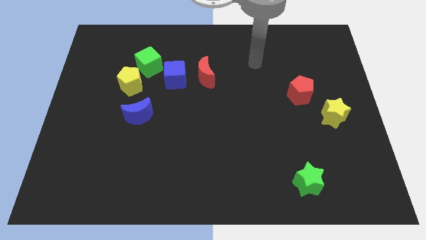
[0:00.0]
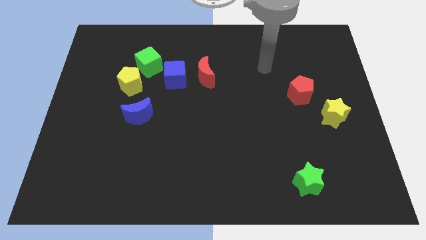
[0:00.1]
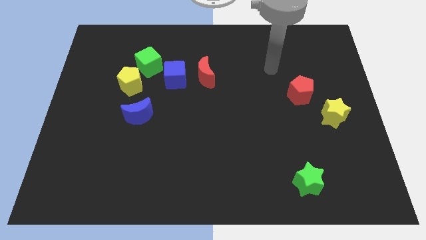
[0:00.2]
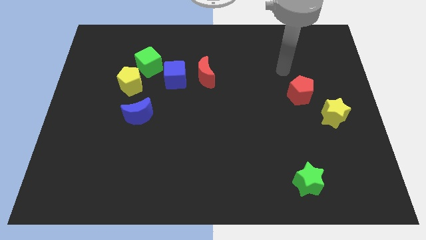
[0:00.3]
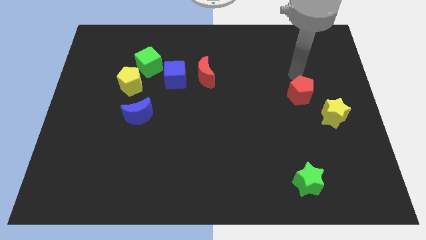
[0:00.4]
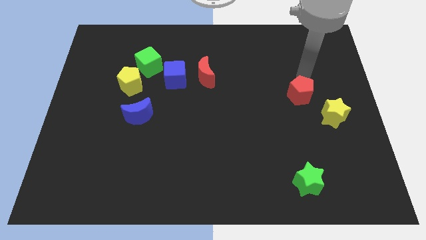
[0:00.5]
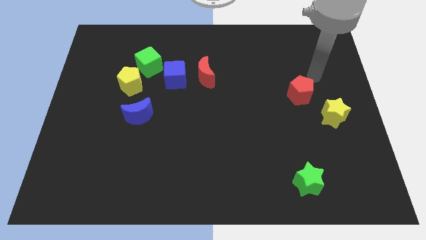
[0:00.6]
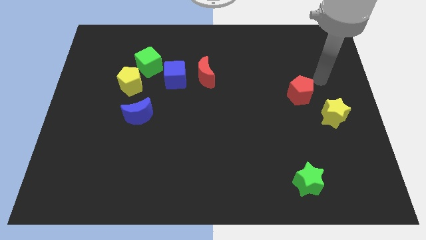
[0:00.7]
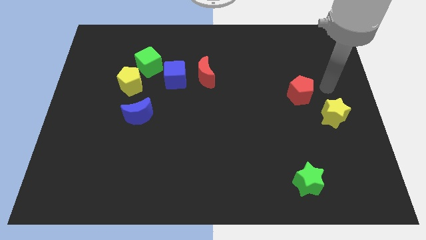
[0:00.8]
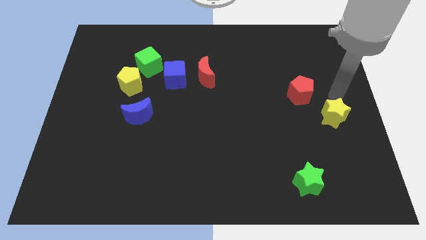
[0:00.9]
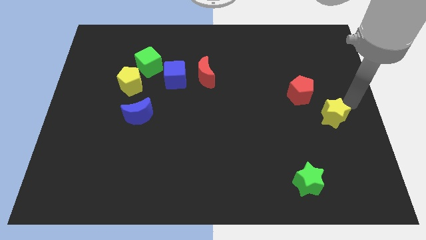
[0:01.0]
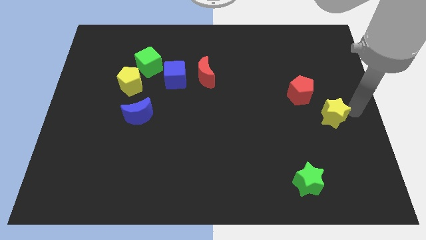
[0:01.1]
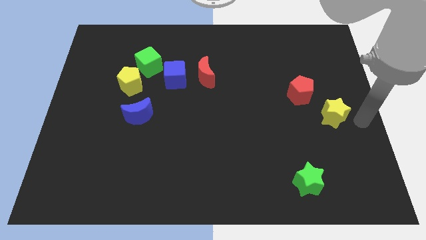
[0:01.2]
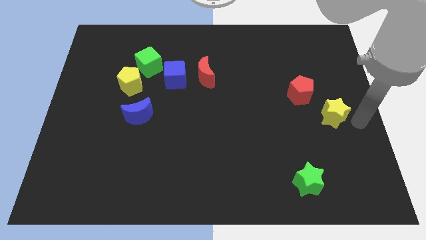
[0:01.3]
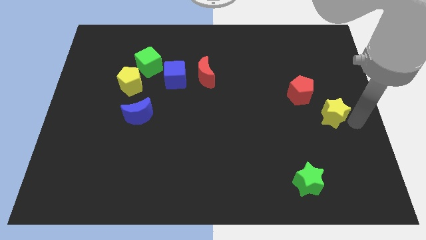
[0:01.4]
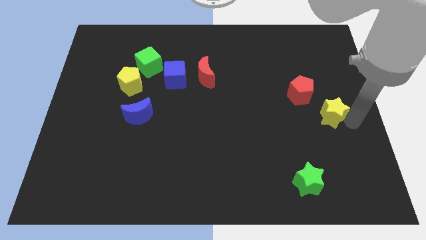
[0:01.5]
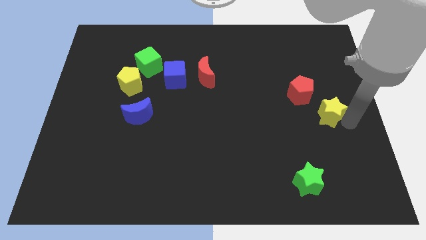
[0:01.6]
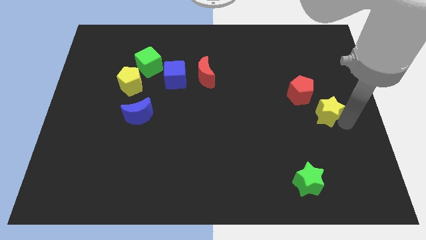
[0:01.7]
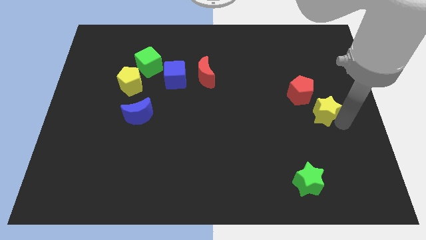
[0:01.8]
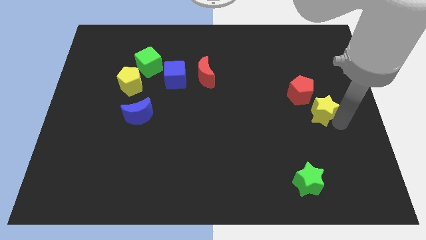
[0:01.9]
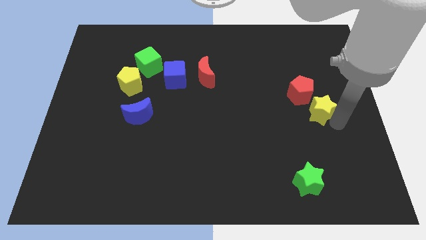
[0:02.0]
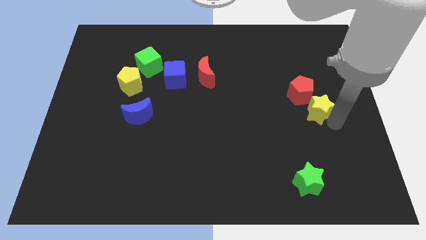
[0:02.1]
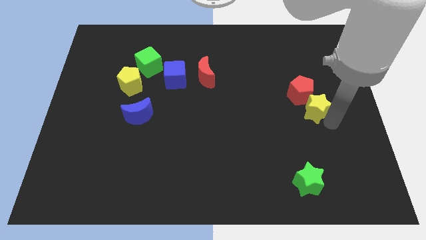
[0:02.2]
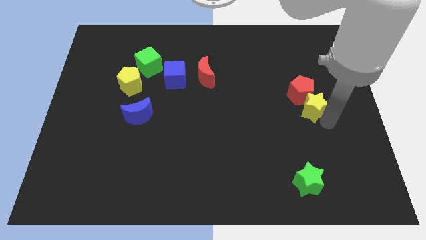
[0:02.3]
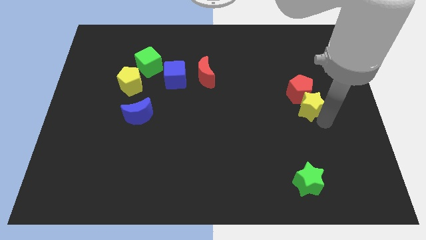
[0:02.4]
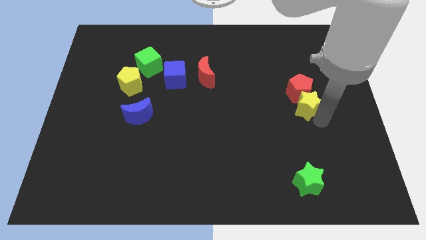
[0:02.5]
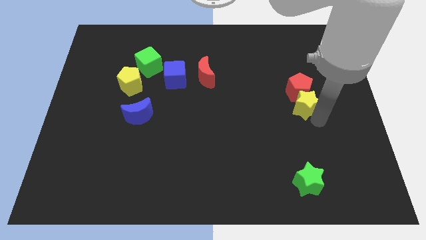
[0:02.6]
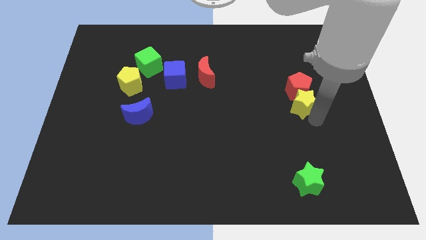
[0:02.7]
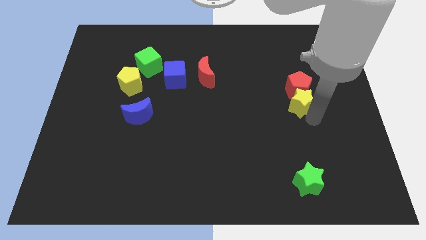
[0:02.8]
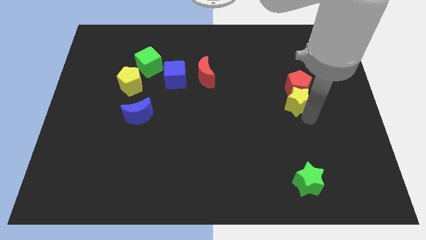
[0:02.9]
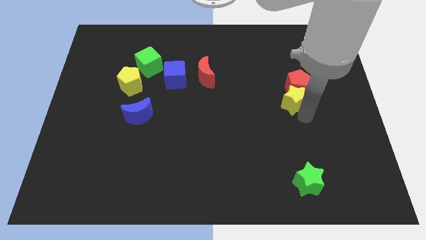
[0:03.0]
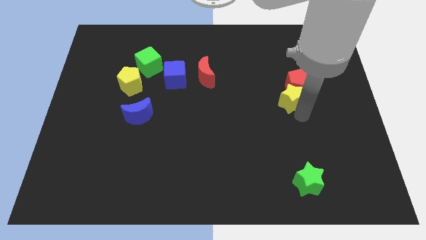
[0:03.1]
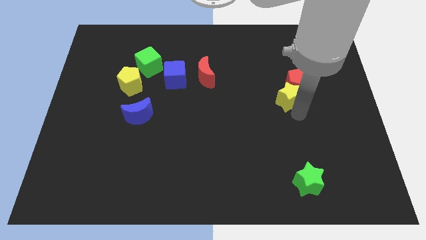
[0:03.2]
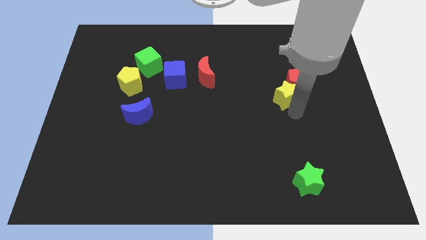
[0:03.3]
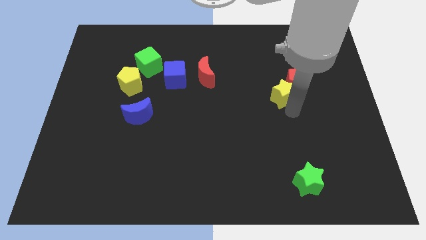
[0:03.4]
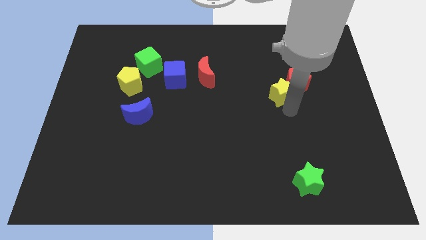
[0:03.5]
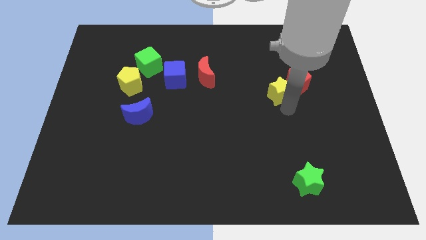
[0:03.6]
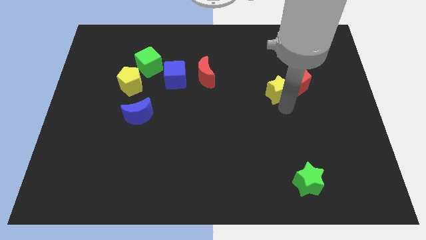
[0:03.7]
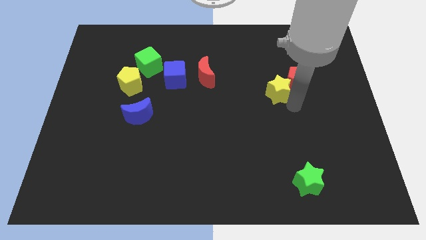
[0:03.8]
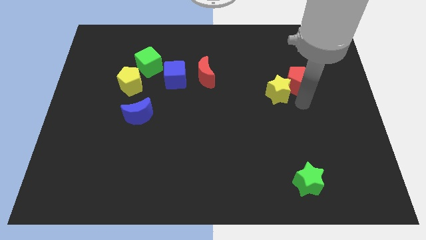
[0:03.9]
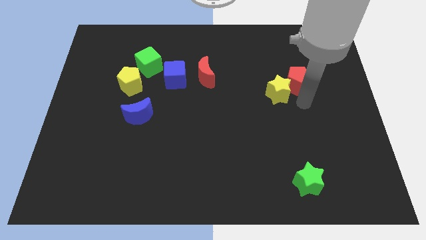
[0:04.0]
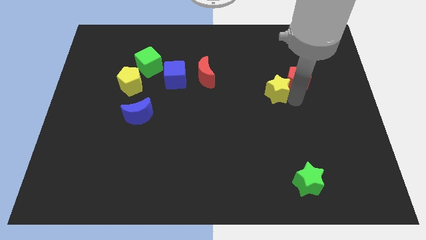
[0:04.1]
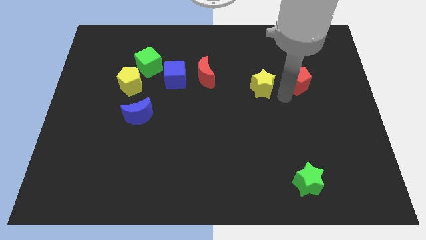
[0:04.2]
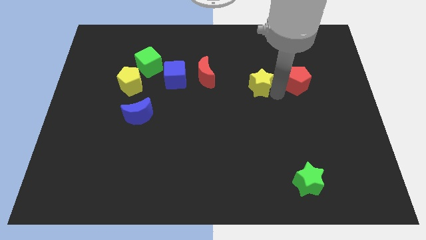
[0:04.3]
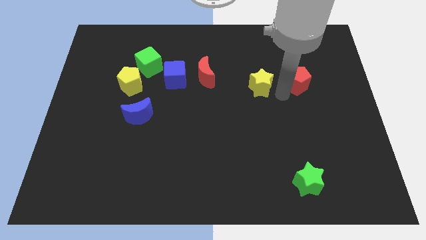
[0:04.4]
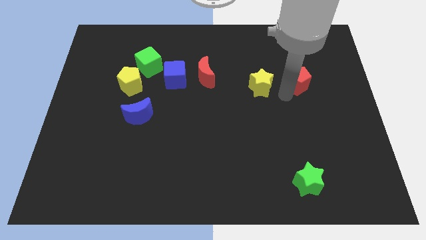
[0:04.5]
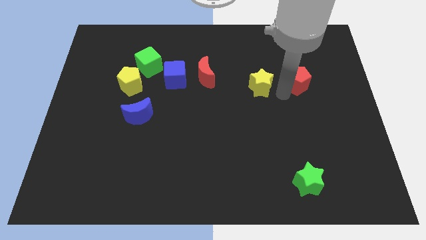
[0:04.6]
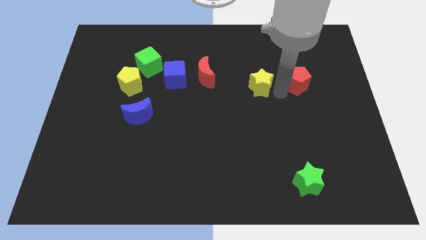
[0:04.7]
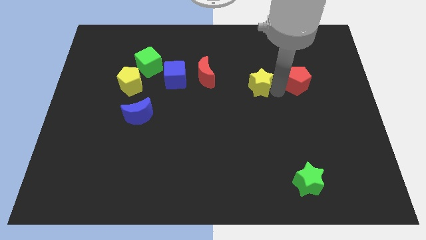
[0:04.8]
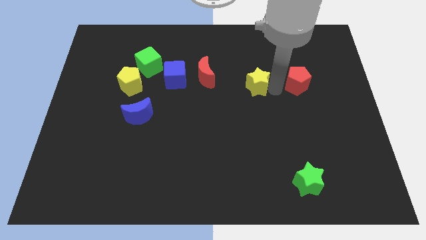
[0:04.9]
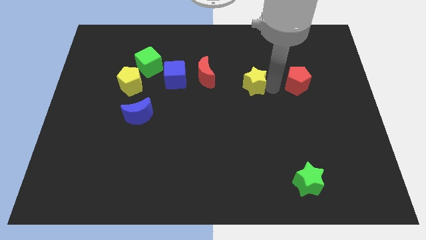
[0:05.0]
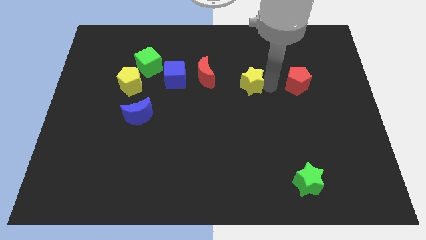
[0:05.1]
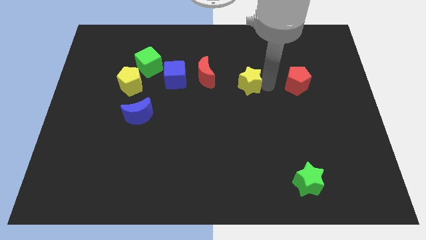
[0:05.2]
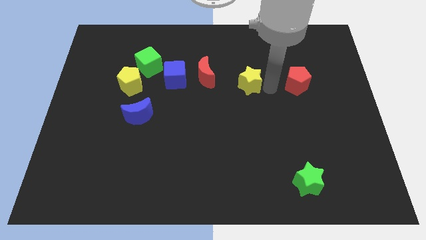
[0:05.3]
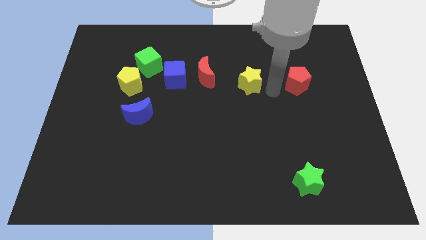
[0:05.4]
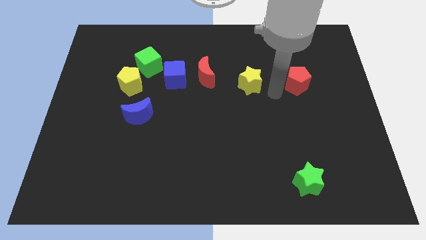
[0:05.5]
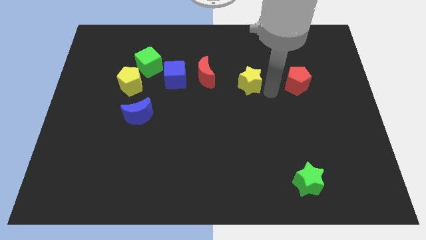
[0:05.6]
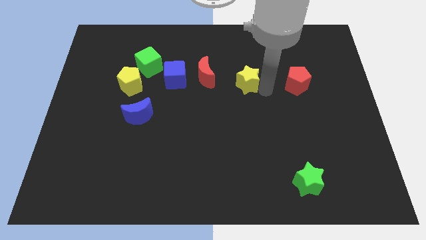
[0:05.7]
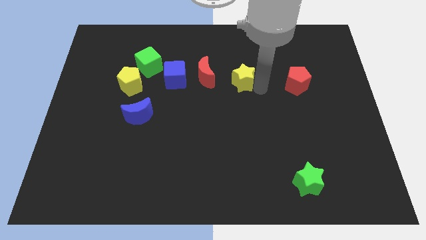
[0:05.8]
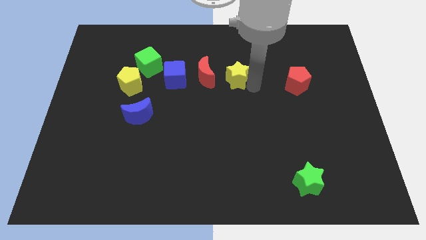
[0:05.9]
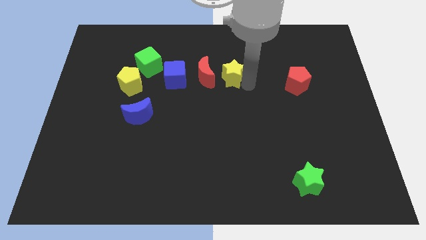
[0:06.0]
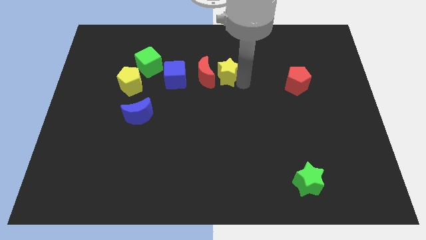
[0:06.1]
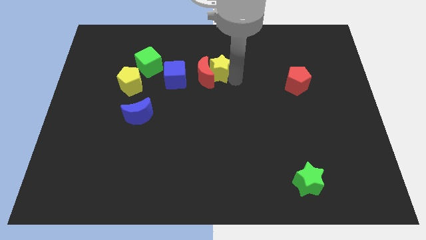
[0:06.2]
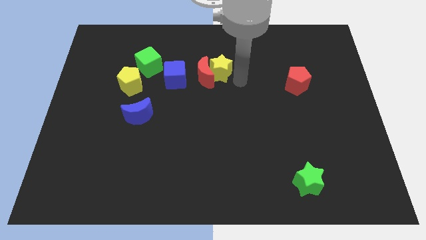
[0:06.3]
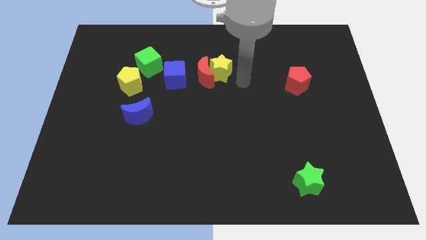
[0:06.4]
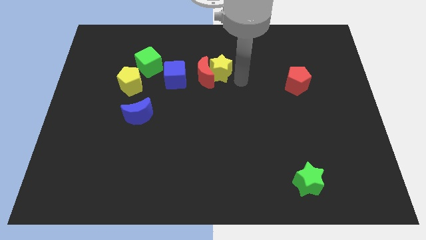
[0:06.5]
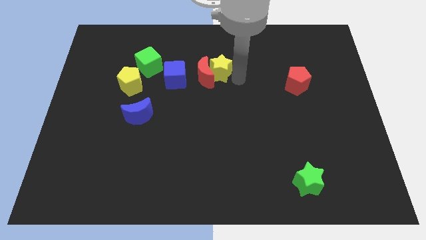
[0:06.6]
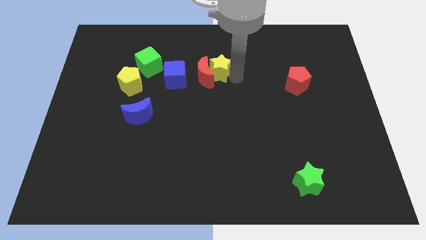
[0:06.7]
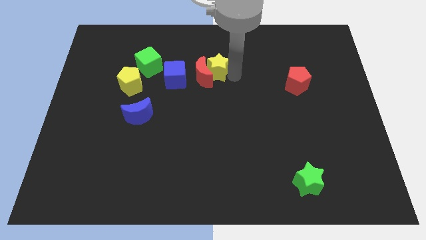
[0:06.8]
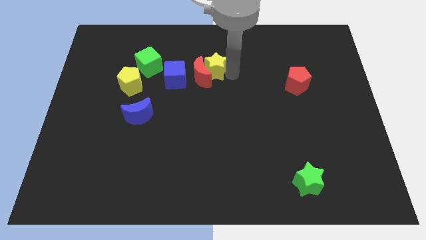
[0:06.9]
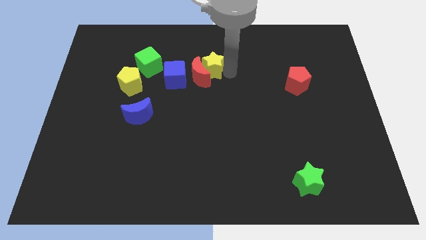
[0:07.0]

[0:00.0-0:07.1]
slide the yellow star to the top right of the blue cube
